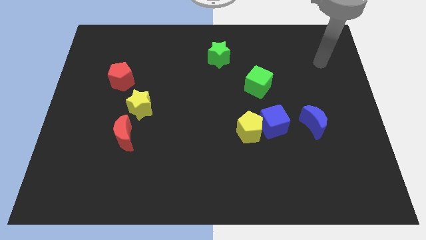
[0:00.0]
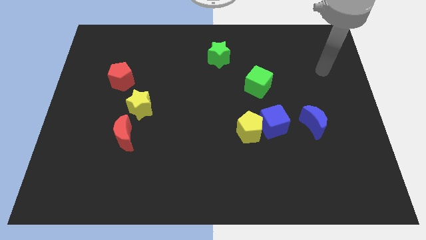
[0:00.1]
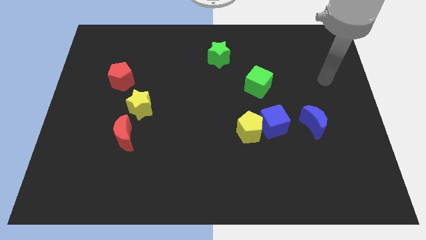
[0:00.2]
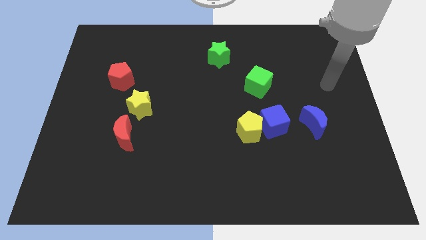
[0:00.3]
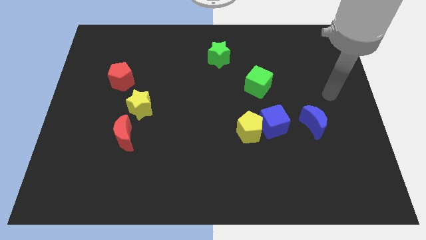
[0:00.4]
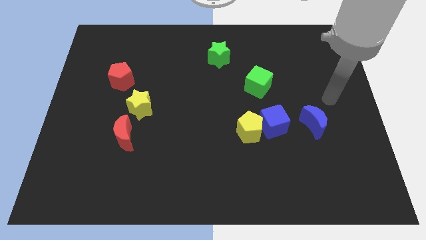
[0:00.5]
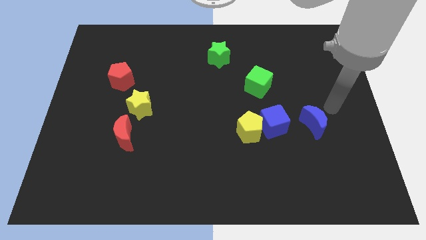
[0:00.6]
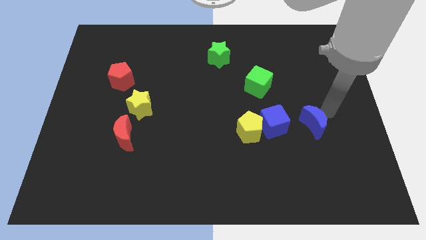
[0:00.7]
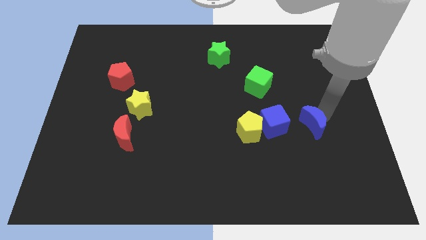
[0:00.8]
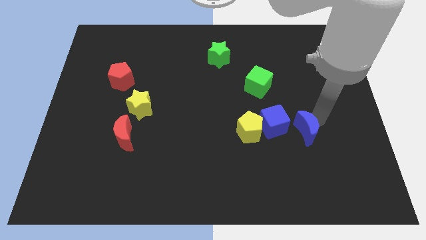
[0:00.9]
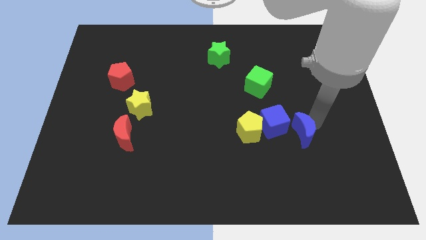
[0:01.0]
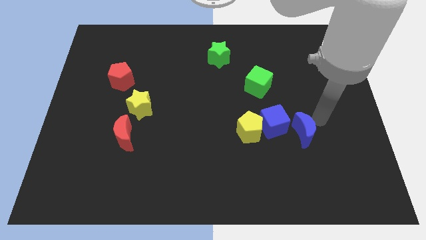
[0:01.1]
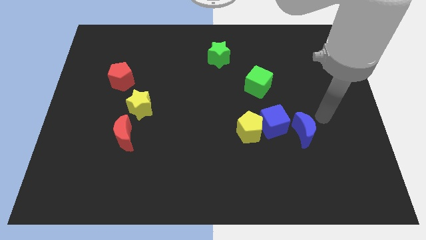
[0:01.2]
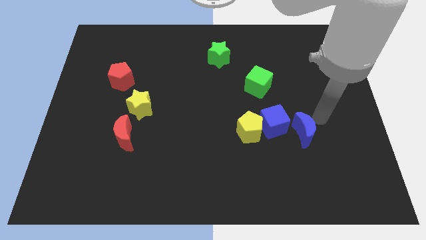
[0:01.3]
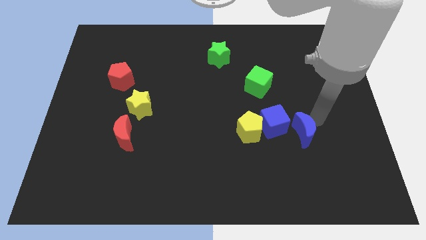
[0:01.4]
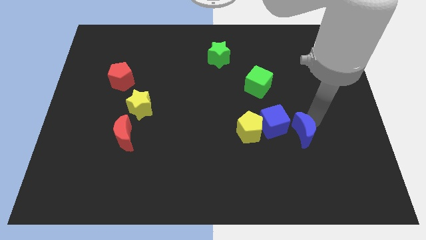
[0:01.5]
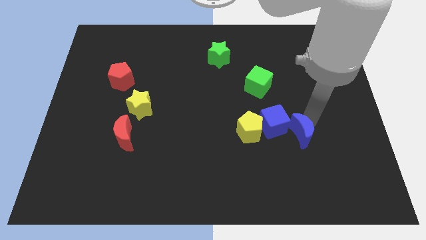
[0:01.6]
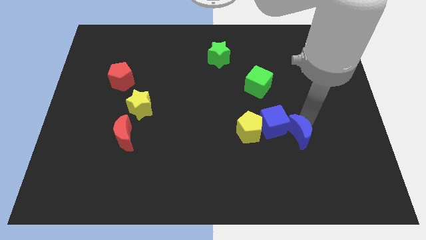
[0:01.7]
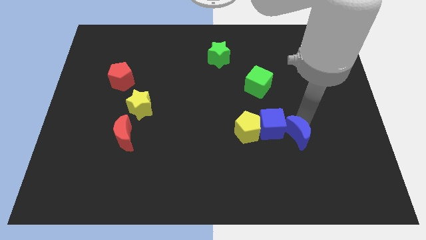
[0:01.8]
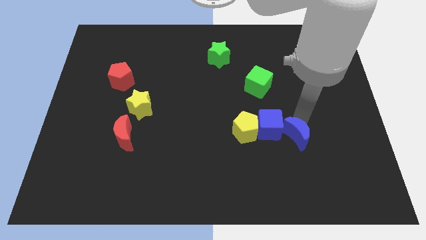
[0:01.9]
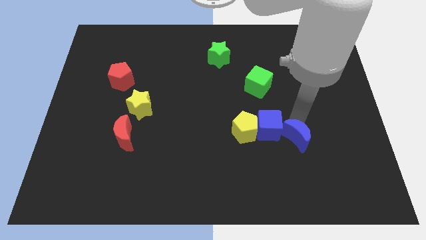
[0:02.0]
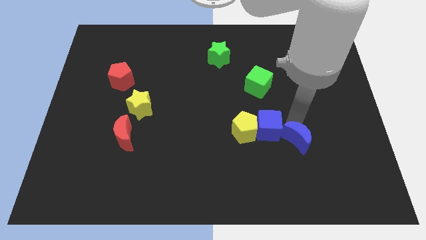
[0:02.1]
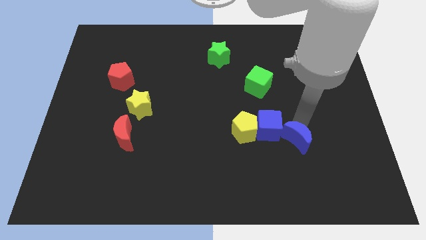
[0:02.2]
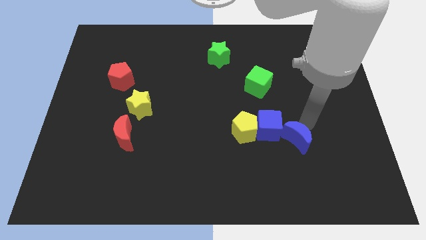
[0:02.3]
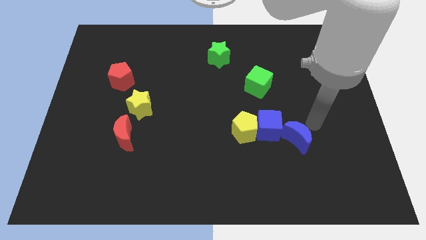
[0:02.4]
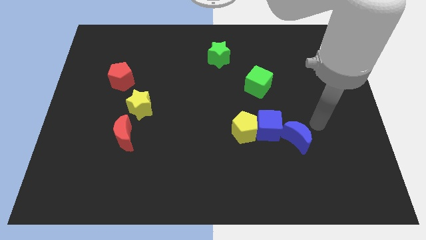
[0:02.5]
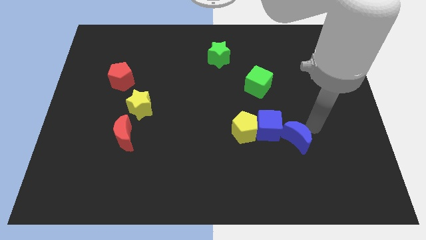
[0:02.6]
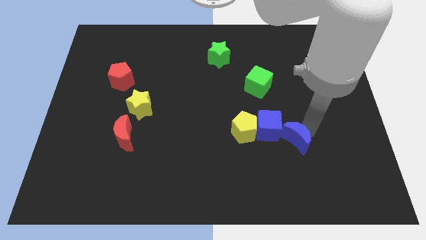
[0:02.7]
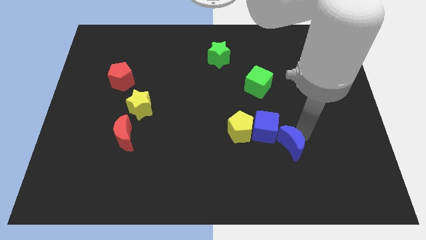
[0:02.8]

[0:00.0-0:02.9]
slightly slide the blue moon diagonally downwards and left

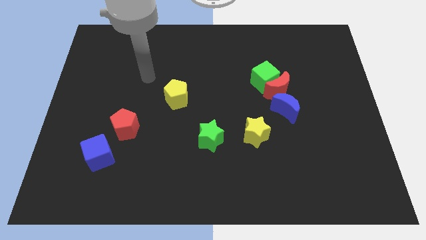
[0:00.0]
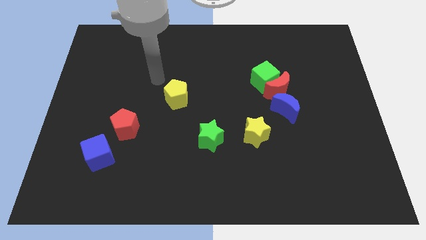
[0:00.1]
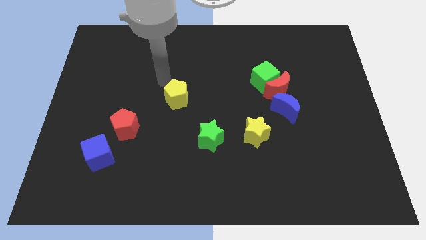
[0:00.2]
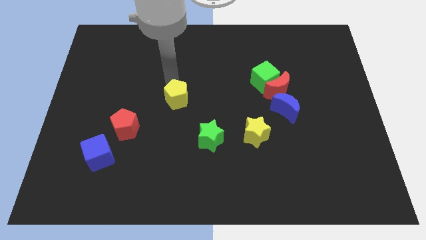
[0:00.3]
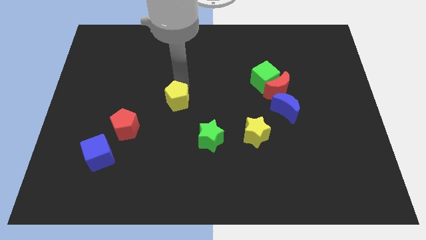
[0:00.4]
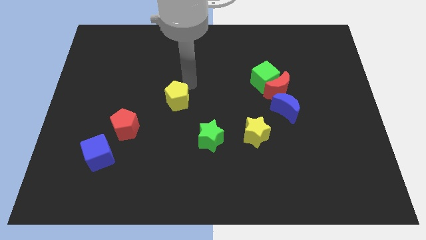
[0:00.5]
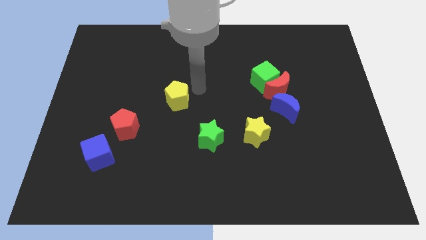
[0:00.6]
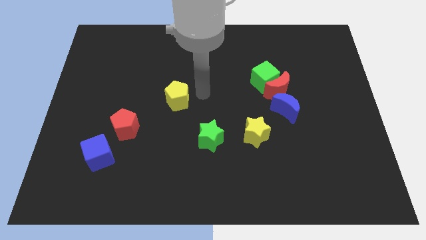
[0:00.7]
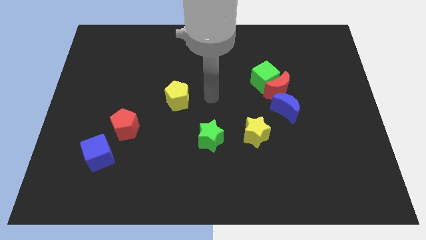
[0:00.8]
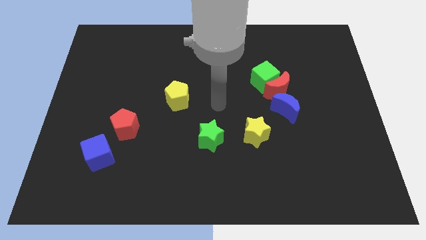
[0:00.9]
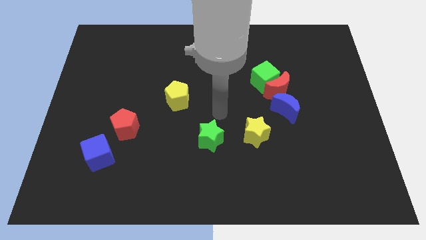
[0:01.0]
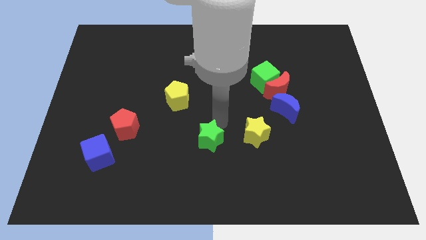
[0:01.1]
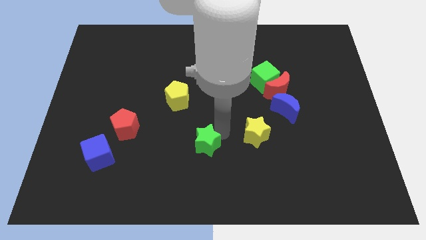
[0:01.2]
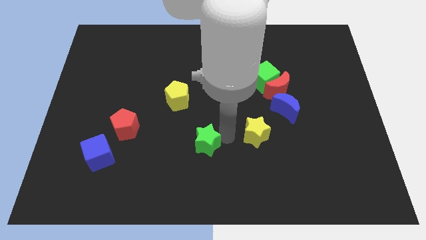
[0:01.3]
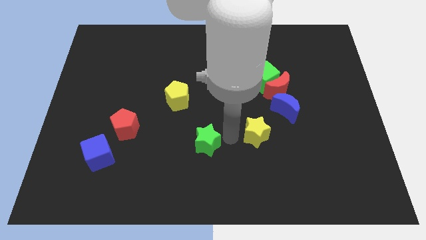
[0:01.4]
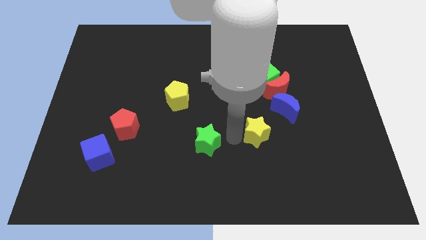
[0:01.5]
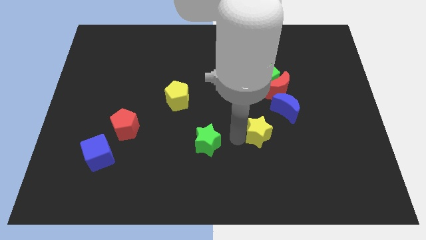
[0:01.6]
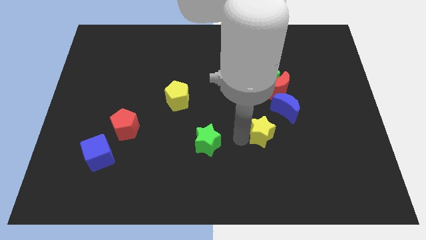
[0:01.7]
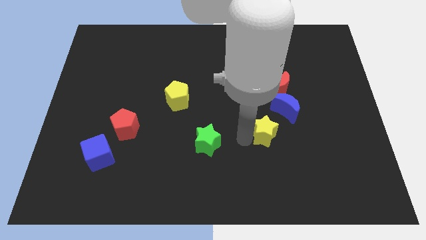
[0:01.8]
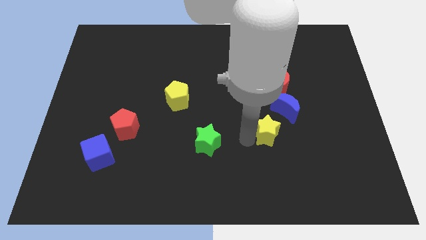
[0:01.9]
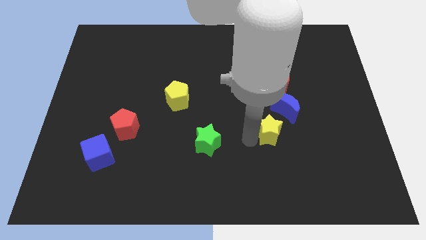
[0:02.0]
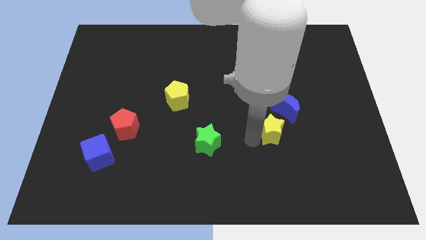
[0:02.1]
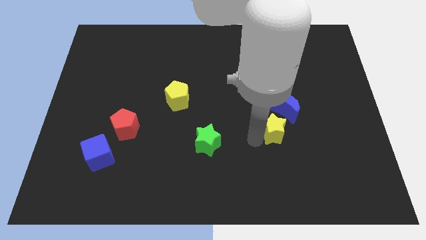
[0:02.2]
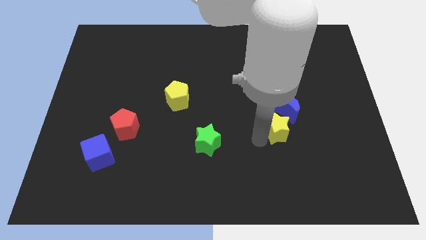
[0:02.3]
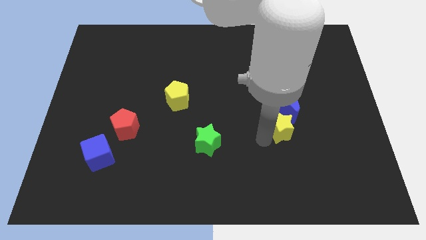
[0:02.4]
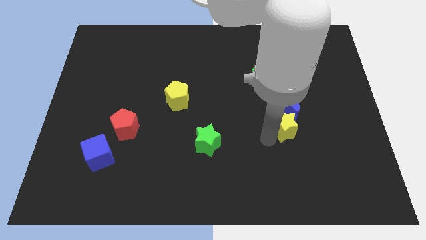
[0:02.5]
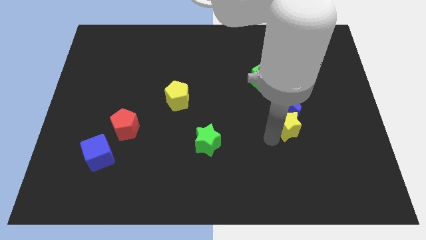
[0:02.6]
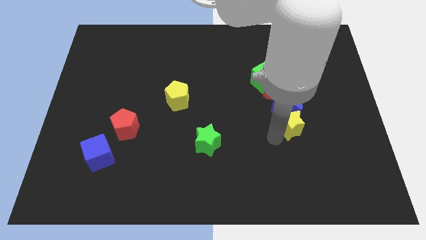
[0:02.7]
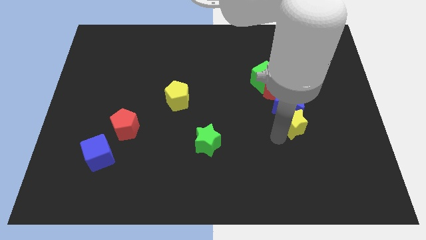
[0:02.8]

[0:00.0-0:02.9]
push the yellow star diagonally up and to the right slightly

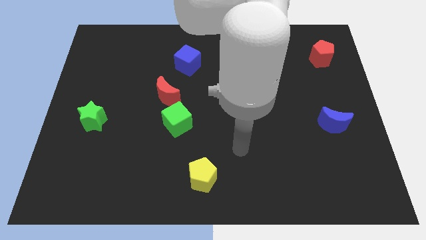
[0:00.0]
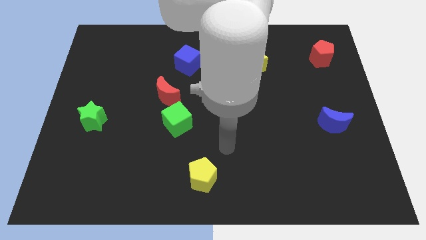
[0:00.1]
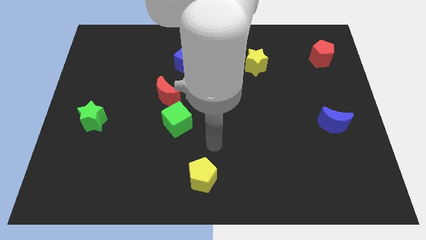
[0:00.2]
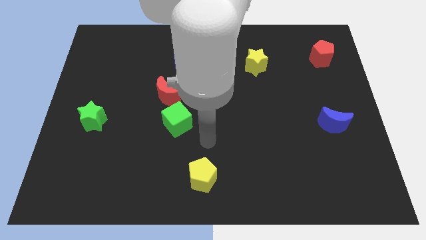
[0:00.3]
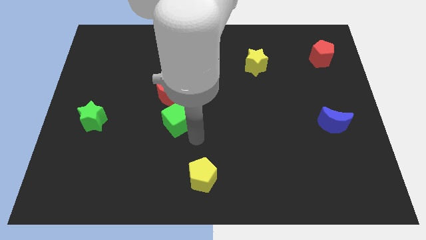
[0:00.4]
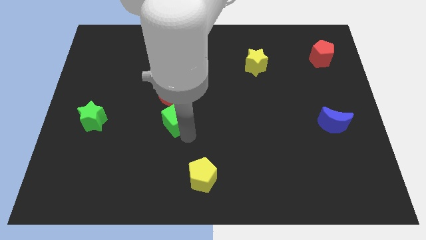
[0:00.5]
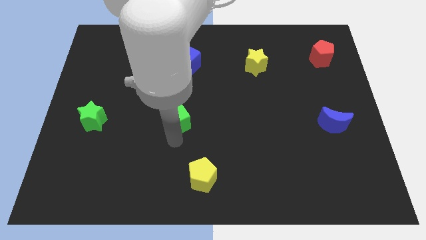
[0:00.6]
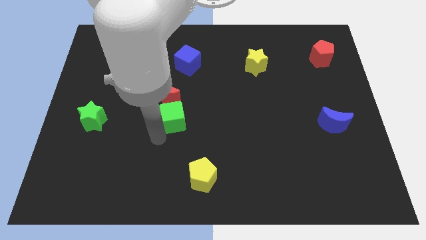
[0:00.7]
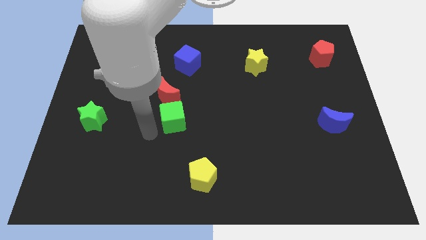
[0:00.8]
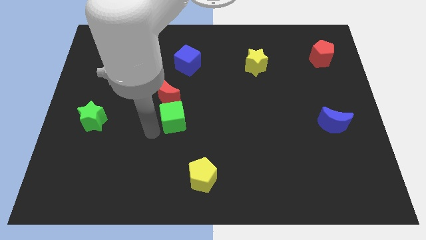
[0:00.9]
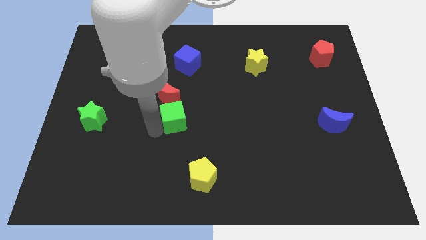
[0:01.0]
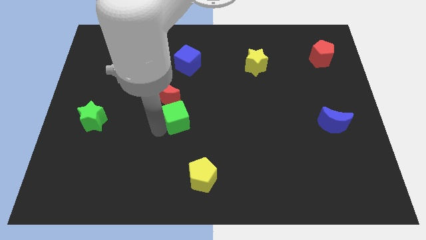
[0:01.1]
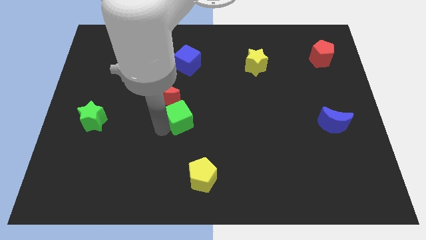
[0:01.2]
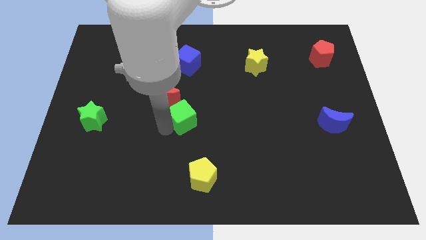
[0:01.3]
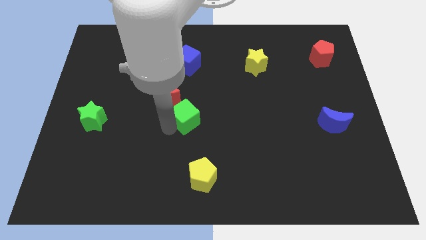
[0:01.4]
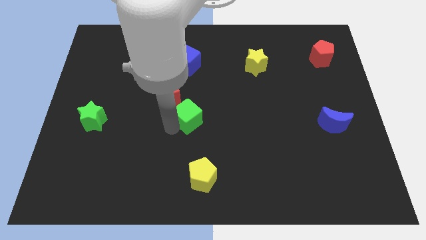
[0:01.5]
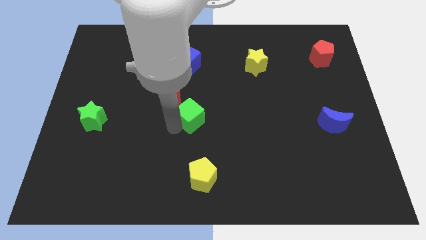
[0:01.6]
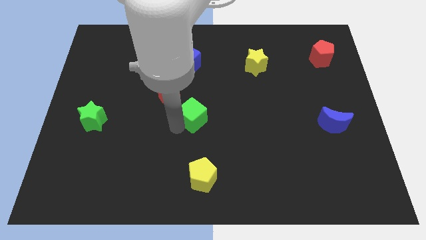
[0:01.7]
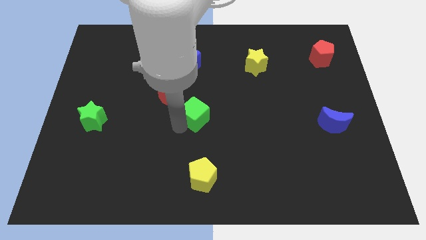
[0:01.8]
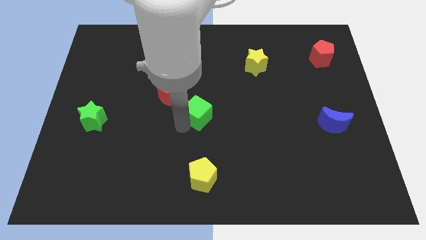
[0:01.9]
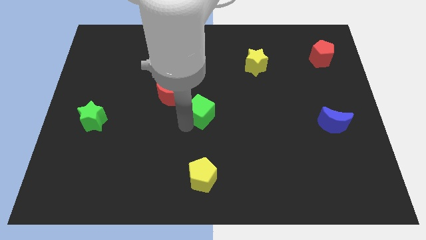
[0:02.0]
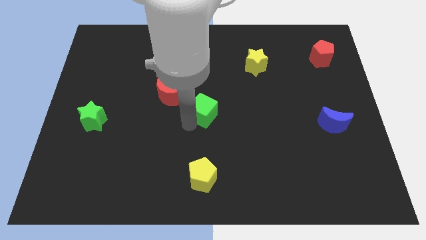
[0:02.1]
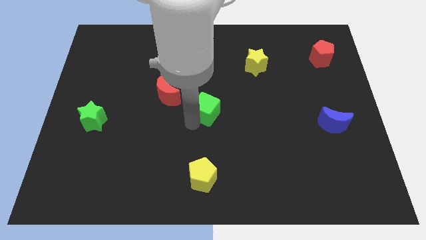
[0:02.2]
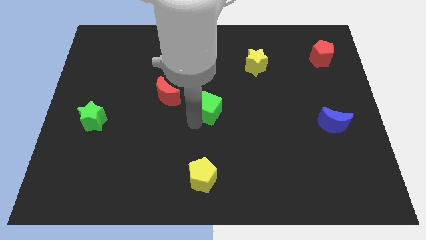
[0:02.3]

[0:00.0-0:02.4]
move the green cube a little up and right diagonally
